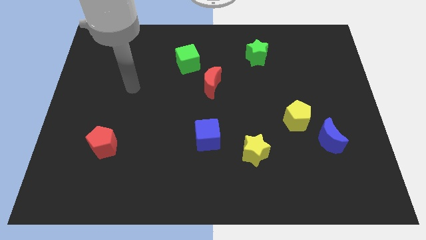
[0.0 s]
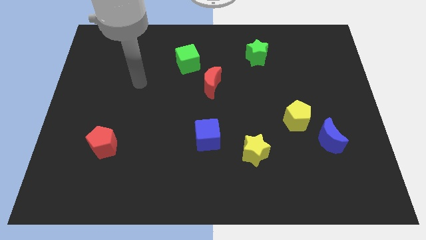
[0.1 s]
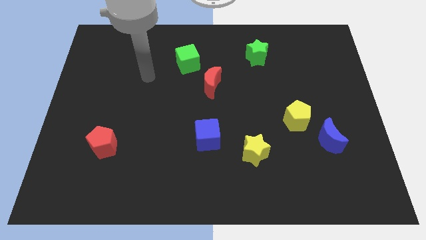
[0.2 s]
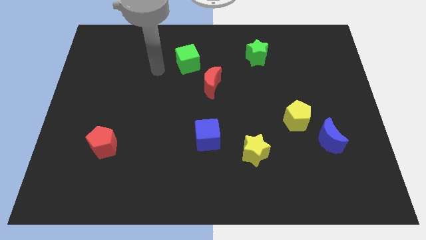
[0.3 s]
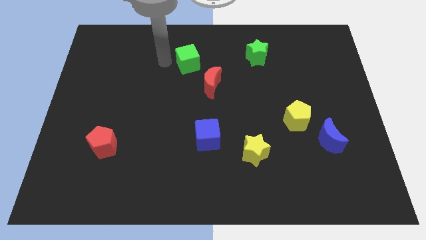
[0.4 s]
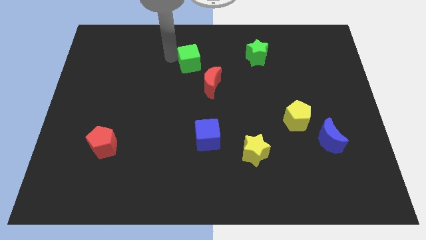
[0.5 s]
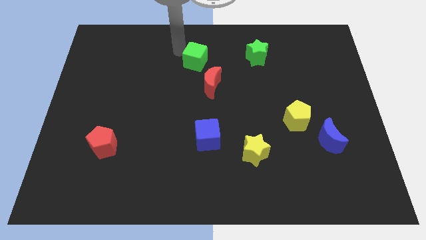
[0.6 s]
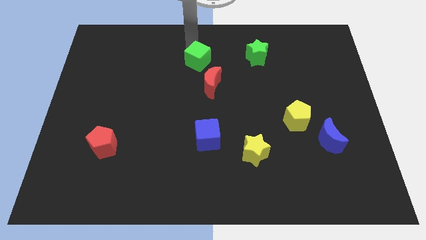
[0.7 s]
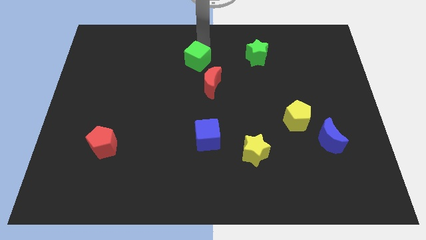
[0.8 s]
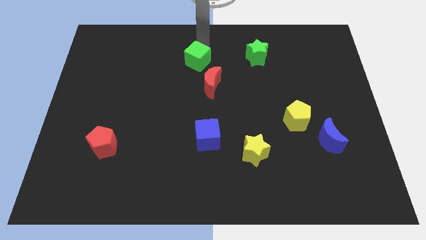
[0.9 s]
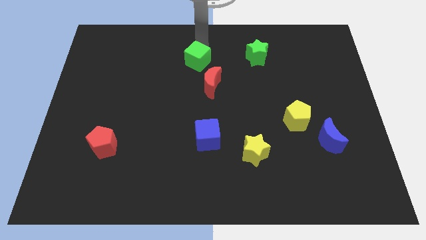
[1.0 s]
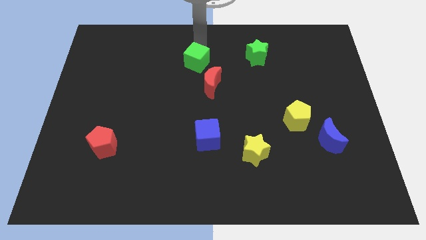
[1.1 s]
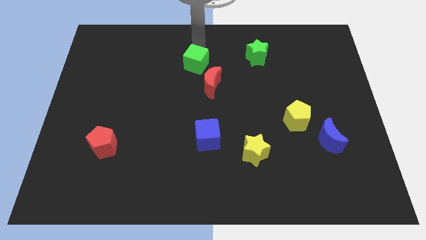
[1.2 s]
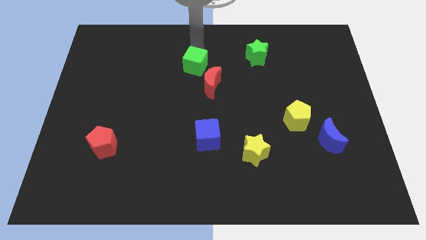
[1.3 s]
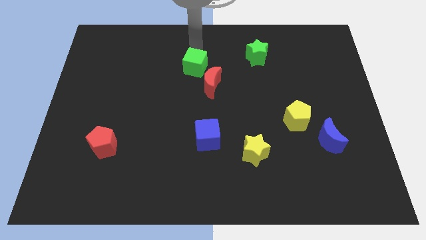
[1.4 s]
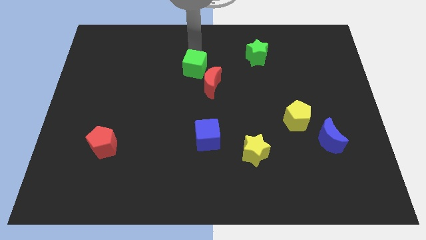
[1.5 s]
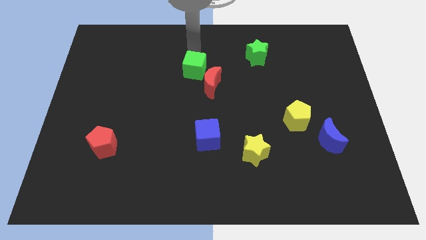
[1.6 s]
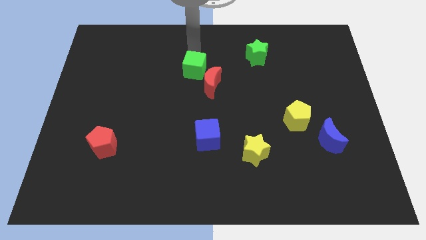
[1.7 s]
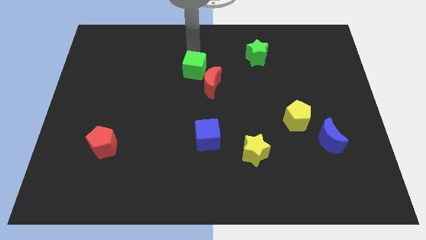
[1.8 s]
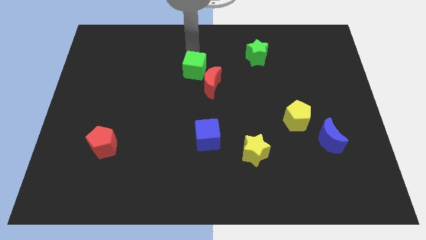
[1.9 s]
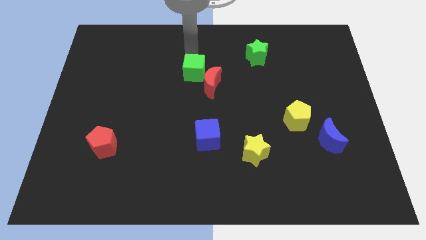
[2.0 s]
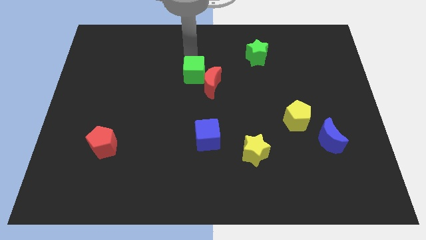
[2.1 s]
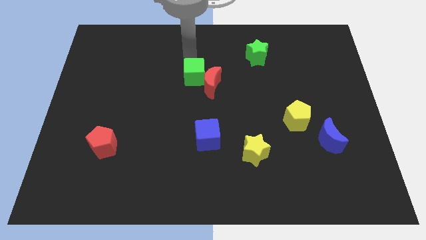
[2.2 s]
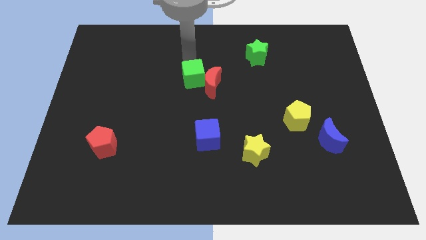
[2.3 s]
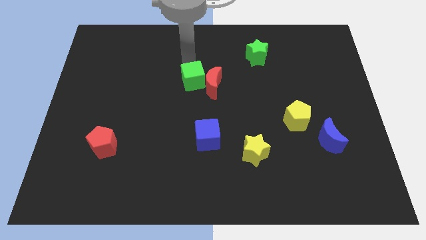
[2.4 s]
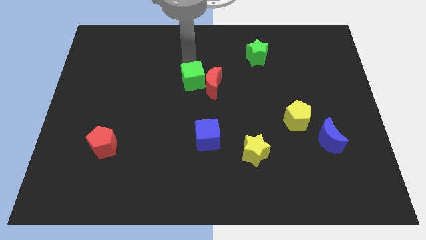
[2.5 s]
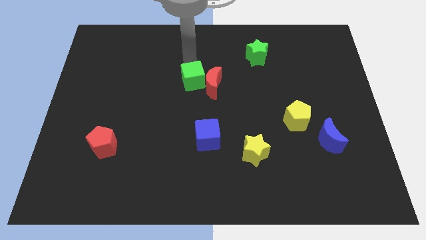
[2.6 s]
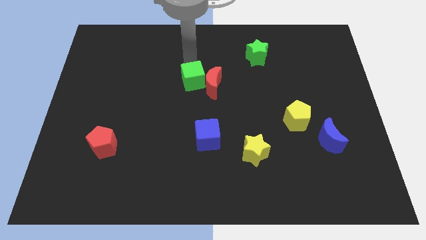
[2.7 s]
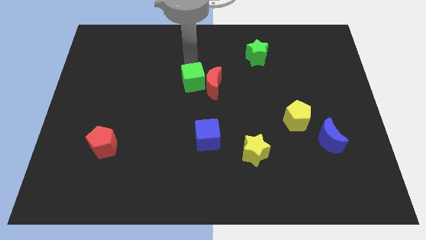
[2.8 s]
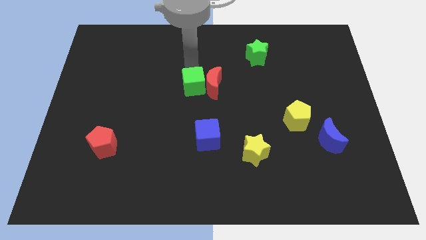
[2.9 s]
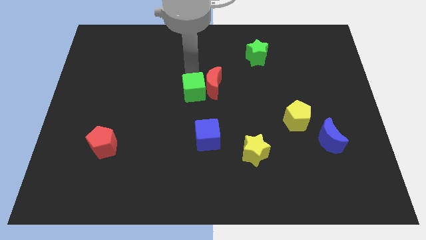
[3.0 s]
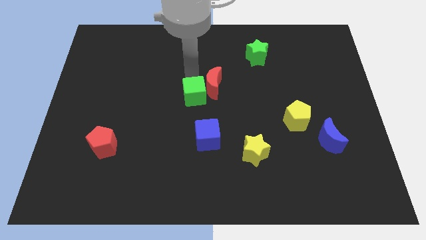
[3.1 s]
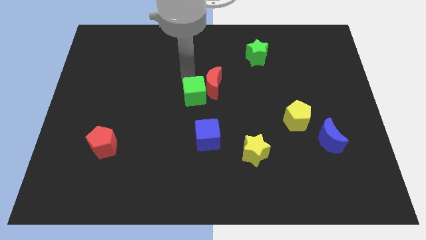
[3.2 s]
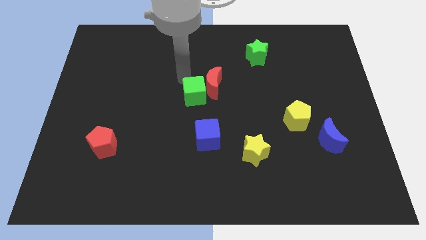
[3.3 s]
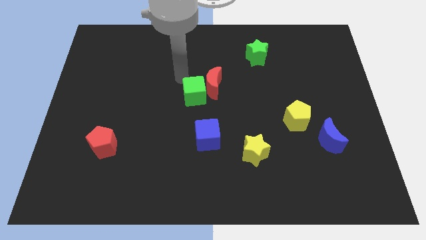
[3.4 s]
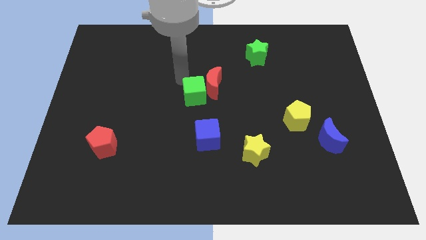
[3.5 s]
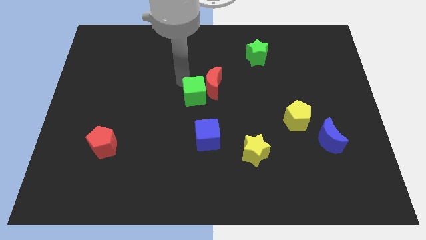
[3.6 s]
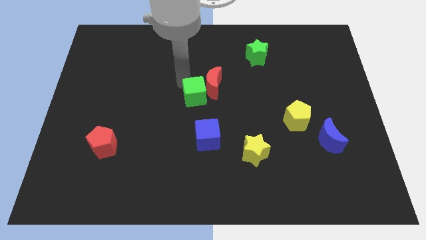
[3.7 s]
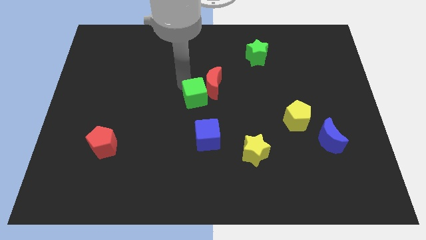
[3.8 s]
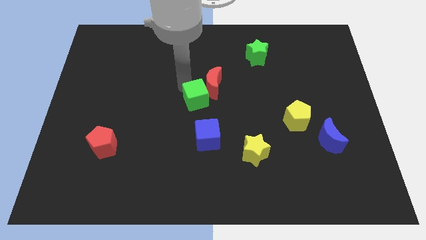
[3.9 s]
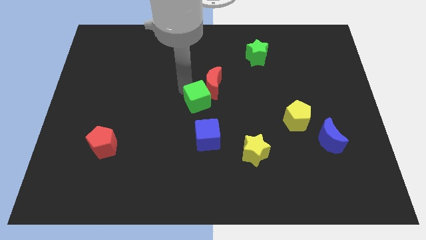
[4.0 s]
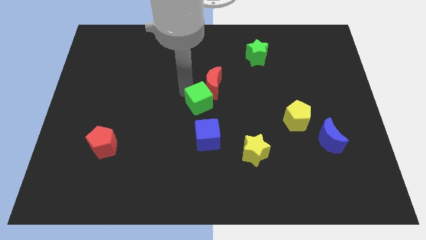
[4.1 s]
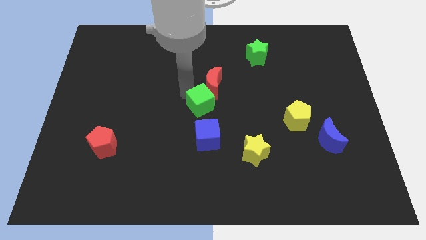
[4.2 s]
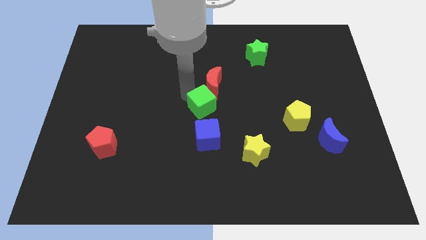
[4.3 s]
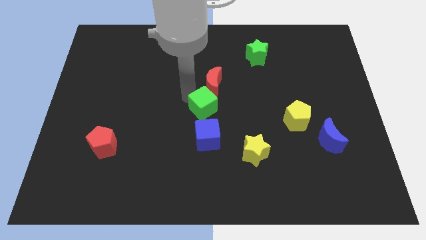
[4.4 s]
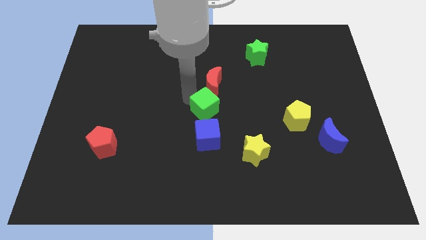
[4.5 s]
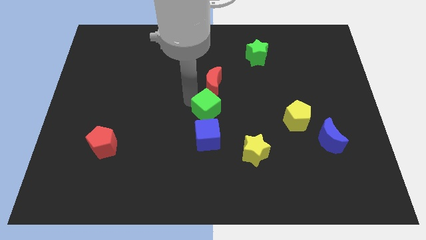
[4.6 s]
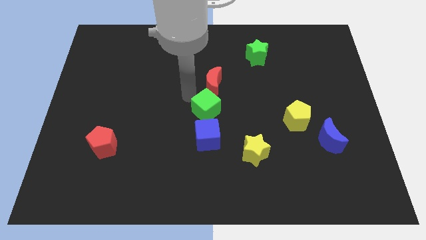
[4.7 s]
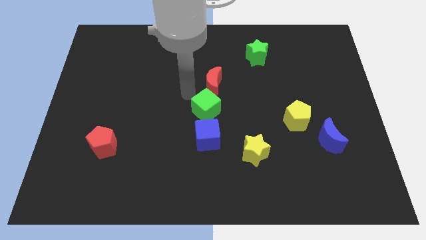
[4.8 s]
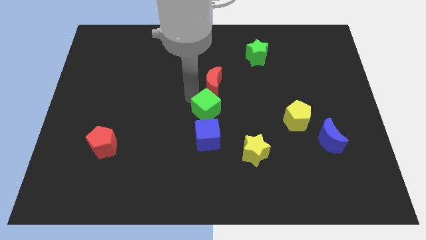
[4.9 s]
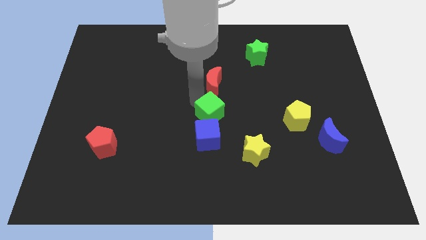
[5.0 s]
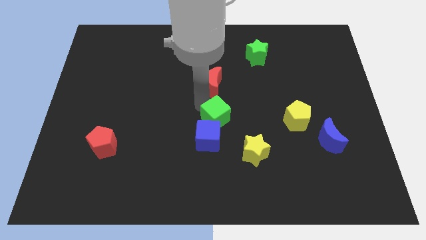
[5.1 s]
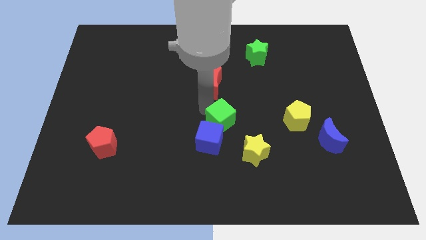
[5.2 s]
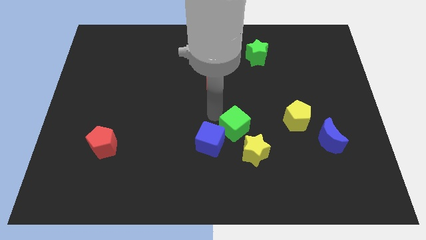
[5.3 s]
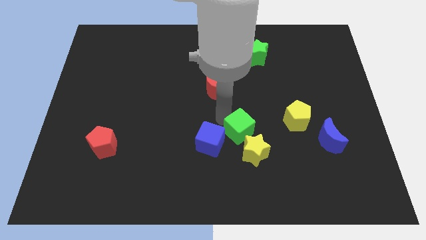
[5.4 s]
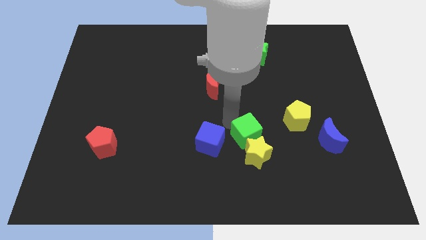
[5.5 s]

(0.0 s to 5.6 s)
put the green cube towards the yellow star

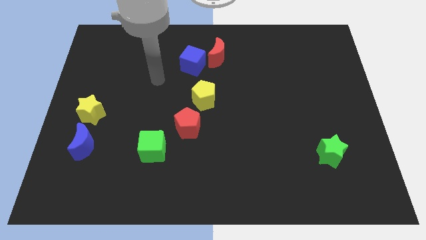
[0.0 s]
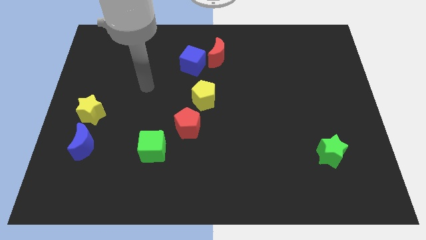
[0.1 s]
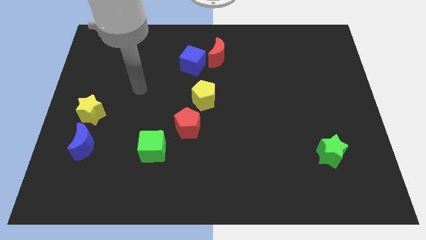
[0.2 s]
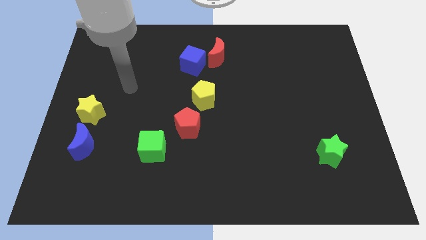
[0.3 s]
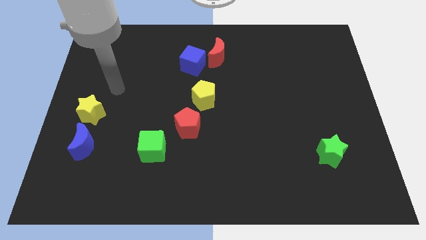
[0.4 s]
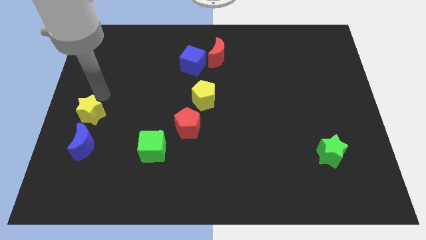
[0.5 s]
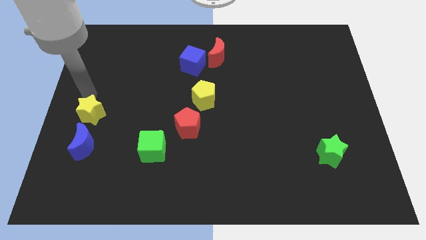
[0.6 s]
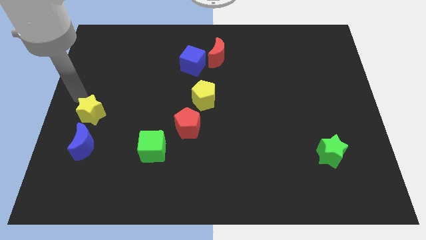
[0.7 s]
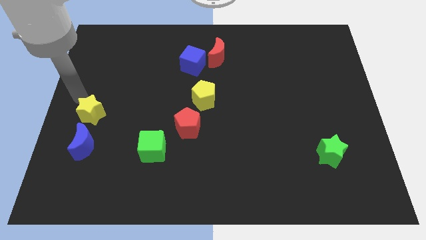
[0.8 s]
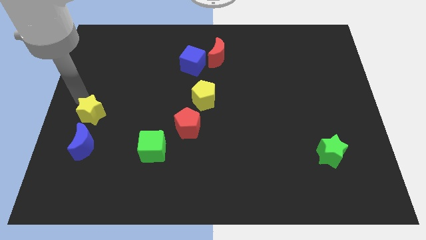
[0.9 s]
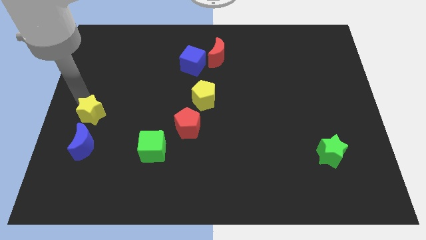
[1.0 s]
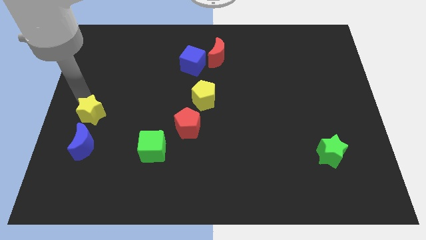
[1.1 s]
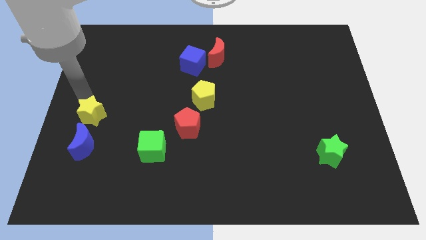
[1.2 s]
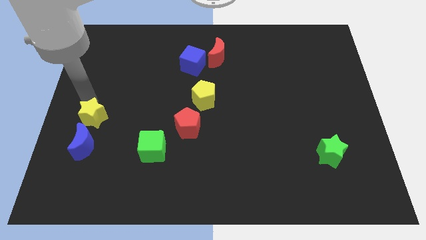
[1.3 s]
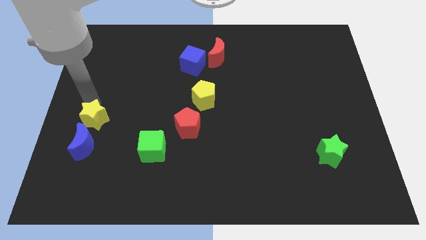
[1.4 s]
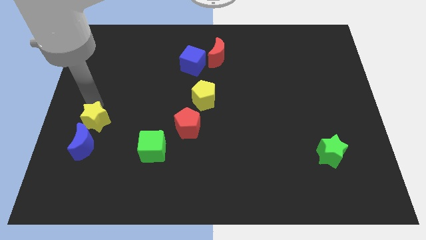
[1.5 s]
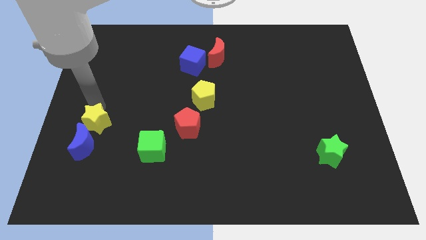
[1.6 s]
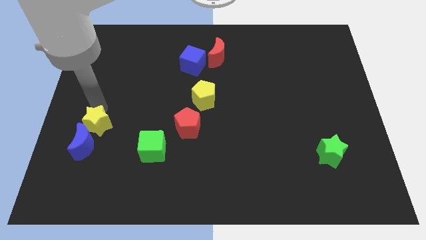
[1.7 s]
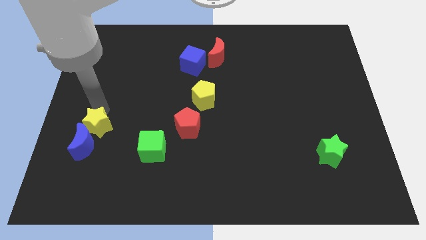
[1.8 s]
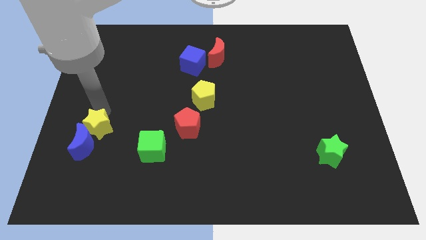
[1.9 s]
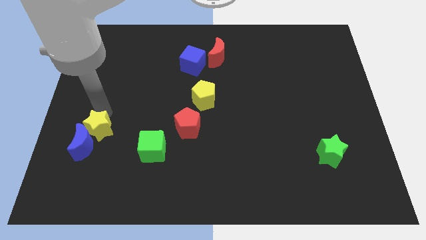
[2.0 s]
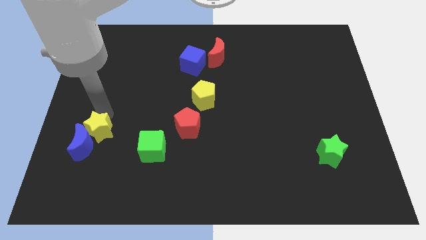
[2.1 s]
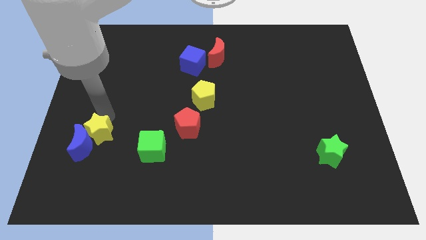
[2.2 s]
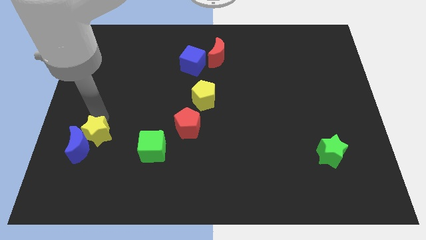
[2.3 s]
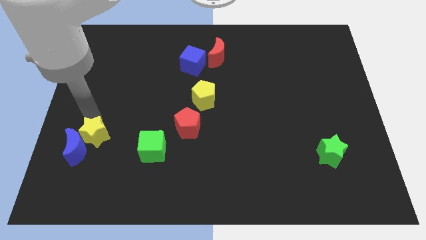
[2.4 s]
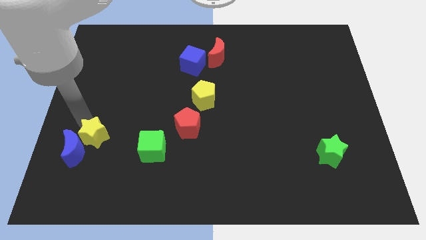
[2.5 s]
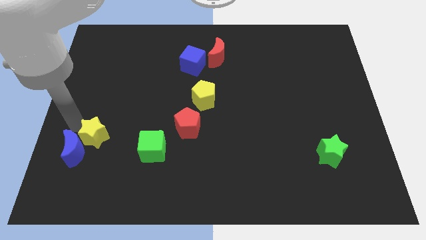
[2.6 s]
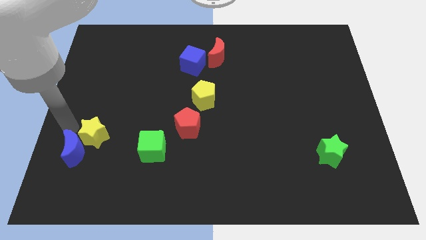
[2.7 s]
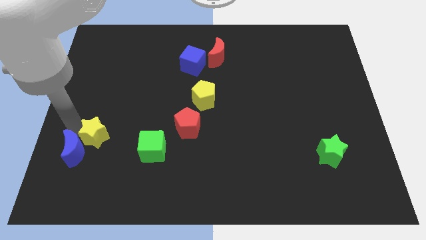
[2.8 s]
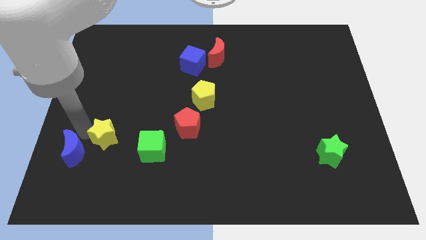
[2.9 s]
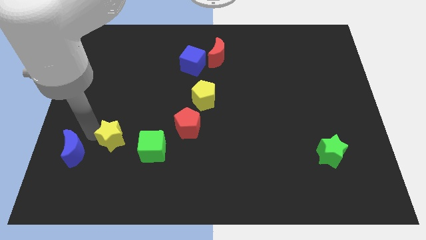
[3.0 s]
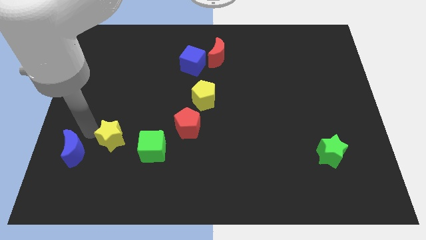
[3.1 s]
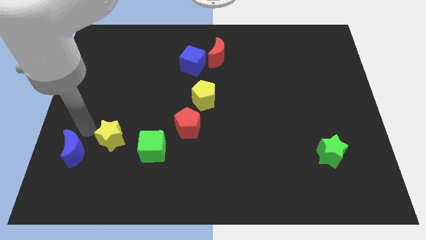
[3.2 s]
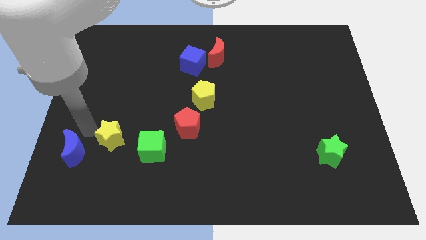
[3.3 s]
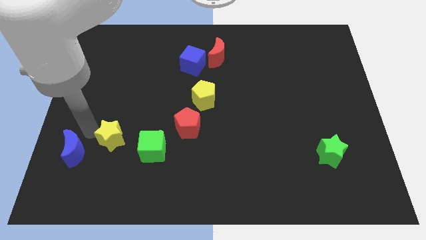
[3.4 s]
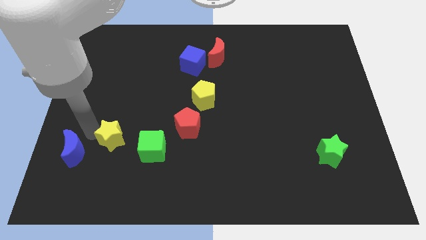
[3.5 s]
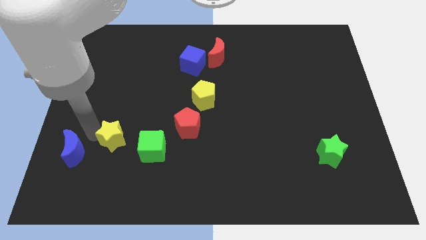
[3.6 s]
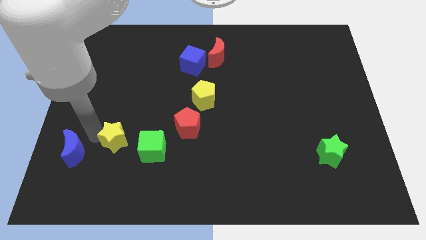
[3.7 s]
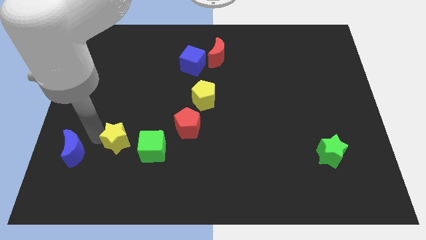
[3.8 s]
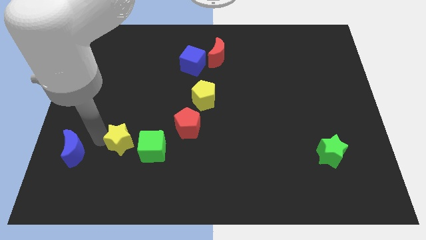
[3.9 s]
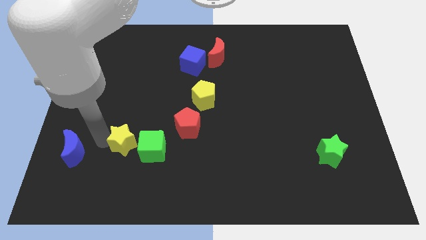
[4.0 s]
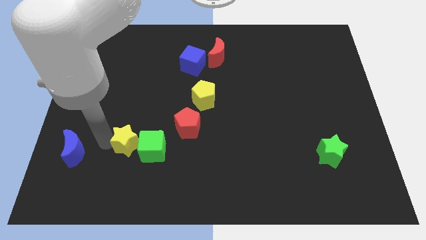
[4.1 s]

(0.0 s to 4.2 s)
push the yellow star next to the green cube
